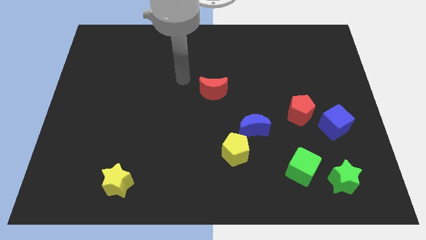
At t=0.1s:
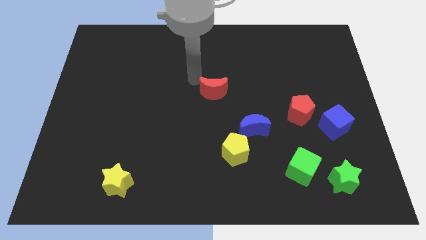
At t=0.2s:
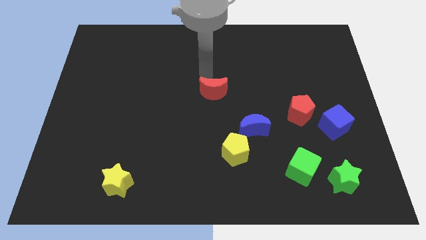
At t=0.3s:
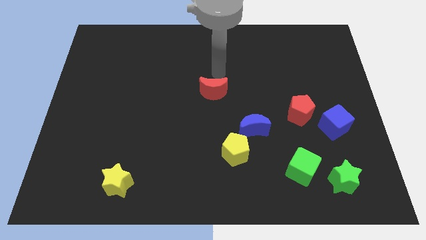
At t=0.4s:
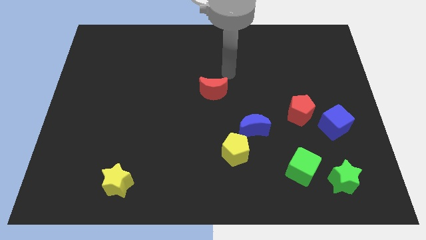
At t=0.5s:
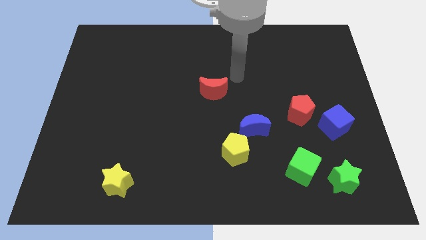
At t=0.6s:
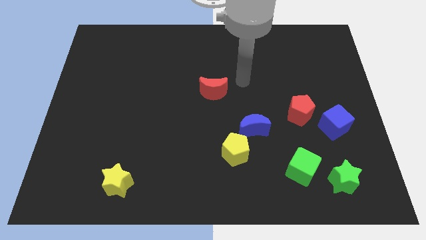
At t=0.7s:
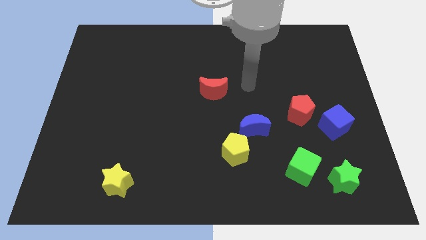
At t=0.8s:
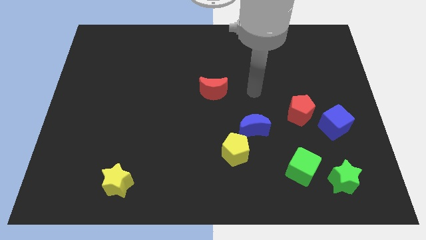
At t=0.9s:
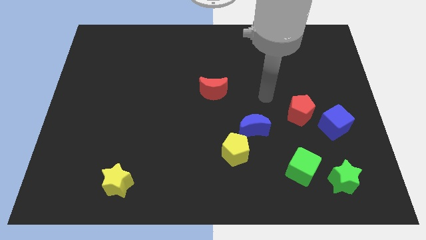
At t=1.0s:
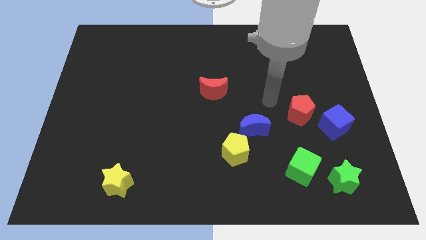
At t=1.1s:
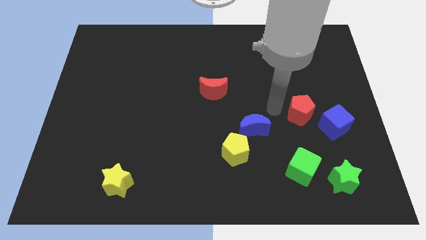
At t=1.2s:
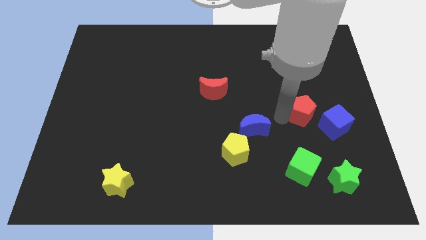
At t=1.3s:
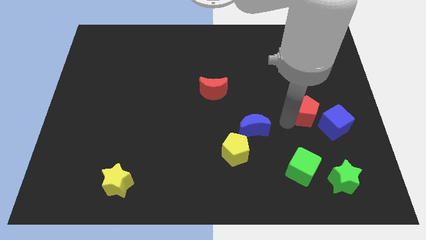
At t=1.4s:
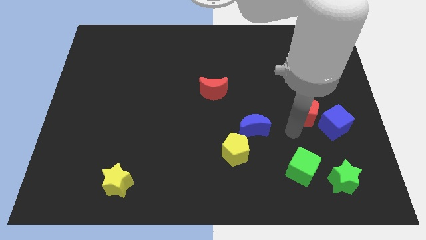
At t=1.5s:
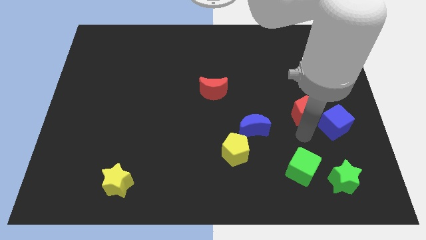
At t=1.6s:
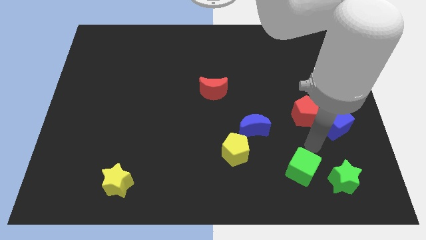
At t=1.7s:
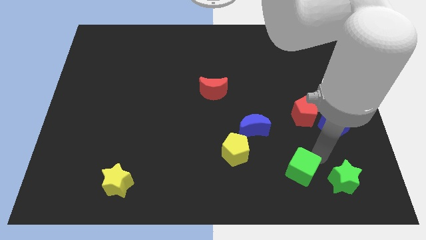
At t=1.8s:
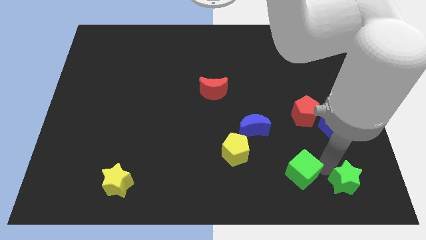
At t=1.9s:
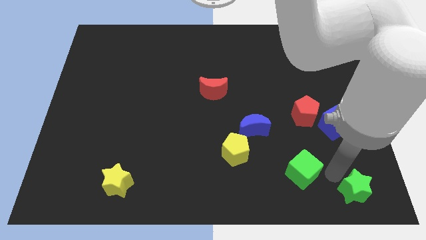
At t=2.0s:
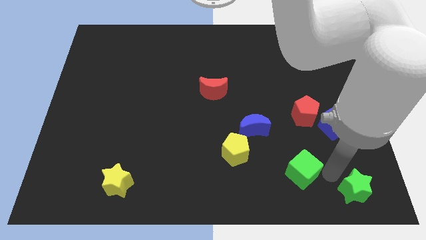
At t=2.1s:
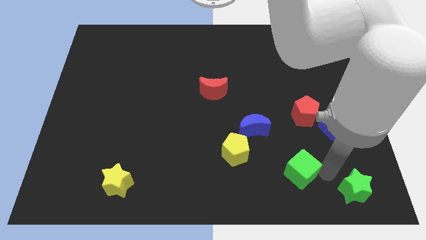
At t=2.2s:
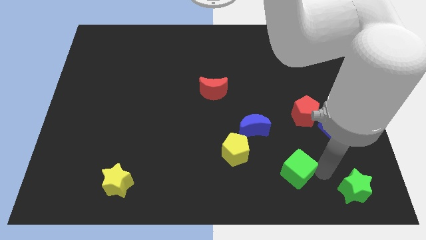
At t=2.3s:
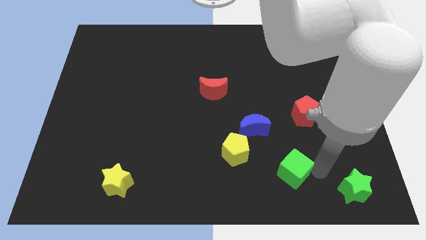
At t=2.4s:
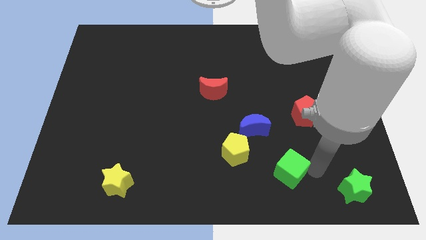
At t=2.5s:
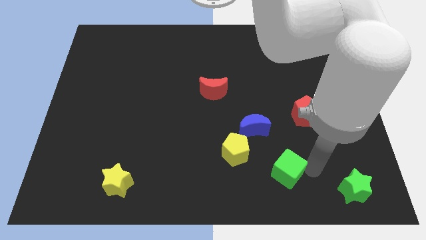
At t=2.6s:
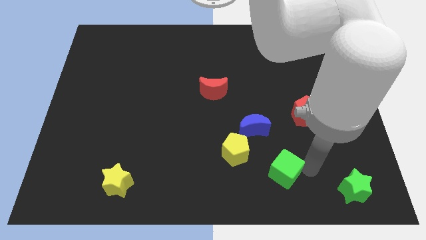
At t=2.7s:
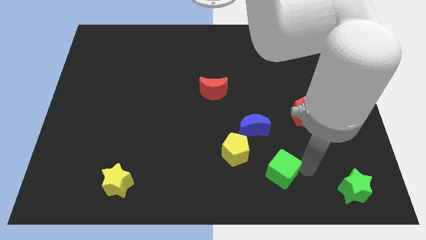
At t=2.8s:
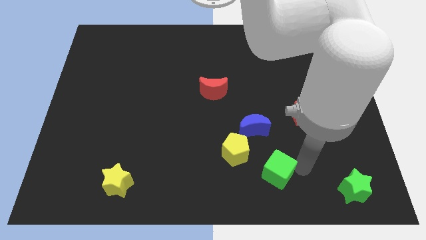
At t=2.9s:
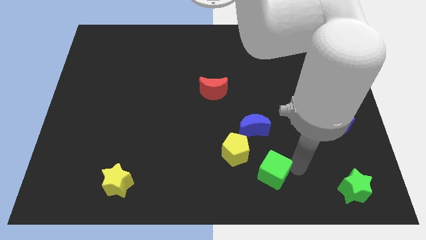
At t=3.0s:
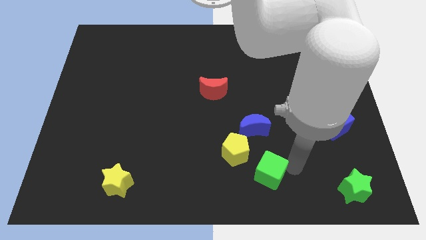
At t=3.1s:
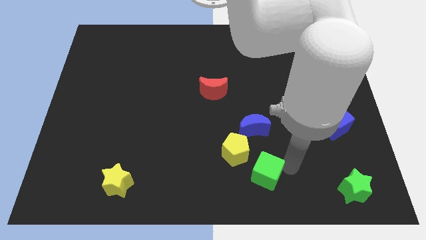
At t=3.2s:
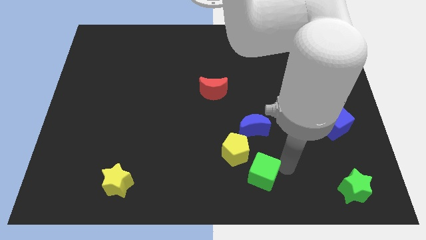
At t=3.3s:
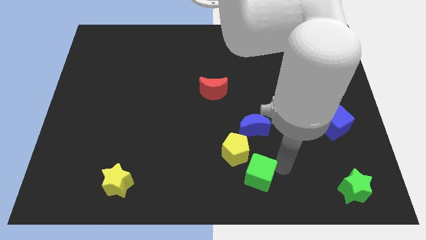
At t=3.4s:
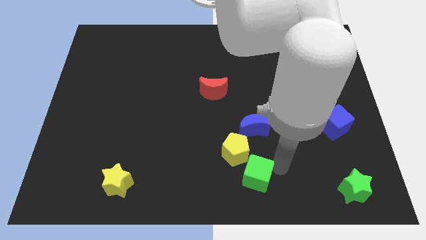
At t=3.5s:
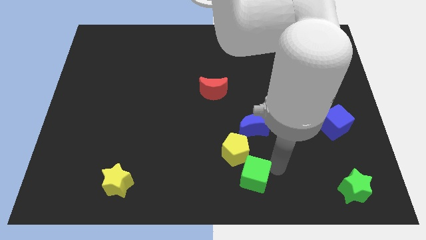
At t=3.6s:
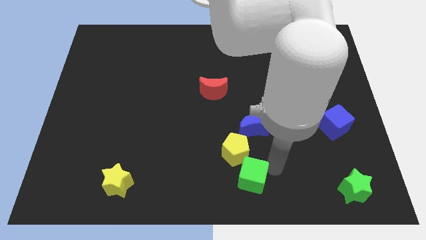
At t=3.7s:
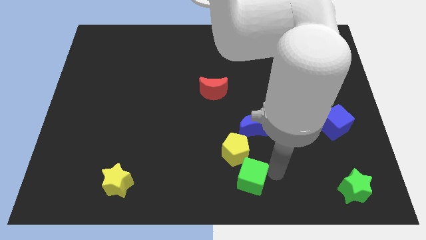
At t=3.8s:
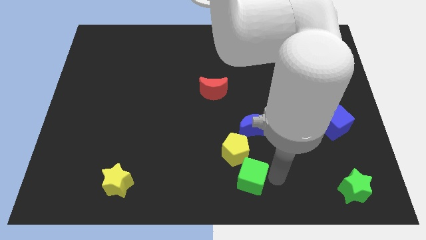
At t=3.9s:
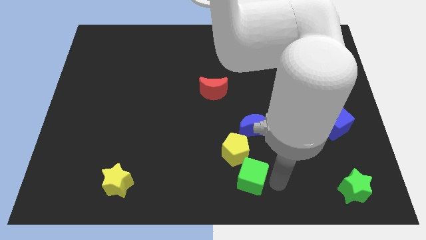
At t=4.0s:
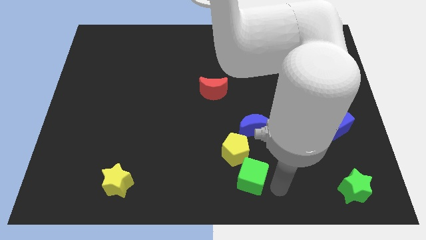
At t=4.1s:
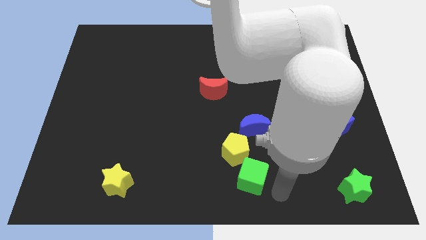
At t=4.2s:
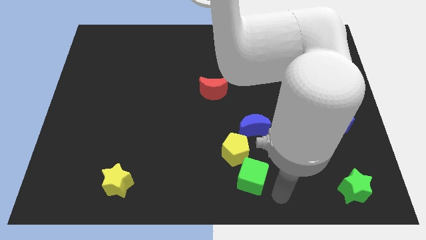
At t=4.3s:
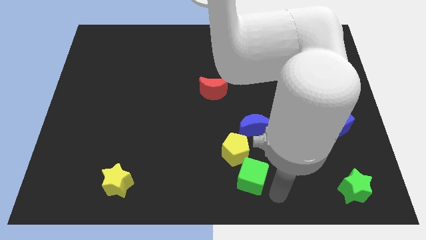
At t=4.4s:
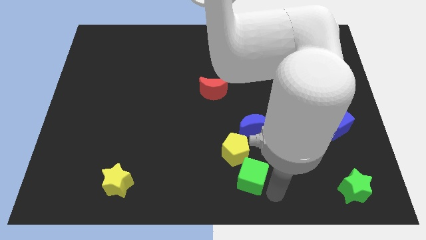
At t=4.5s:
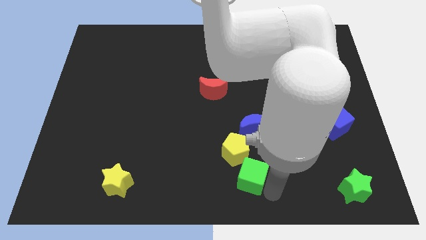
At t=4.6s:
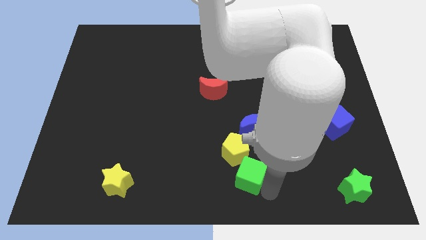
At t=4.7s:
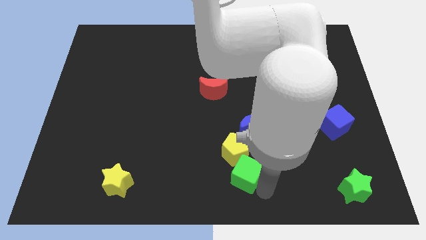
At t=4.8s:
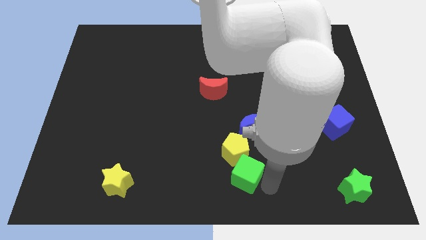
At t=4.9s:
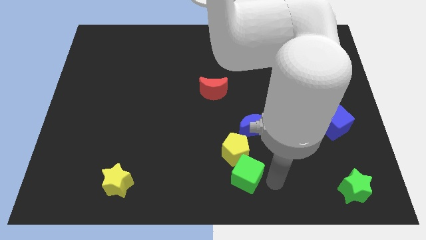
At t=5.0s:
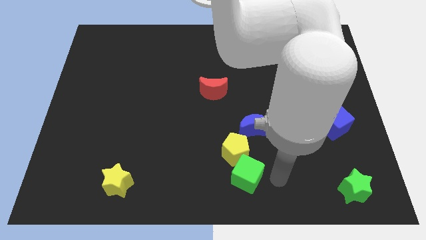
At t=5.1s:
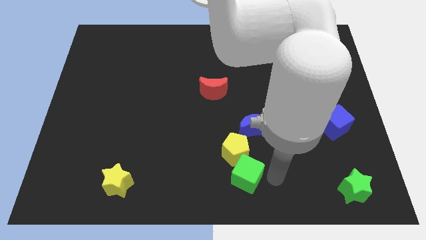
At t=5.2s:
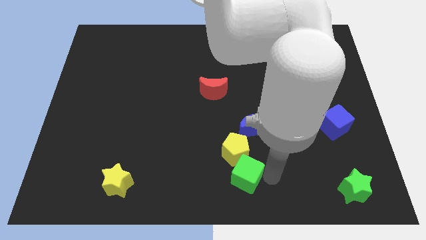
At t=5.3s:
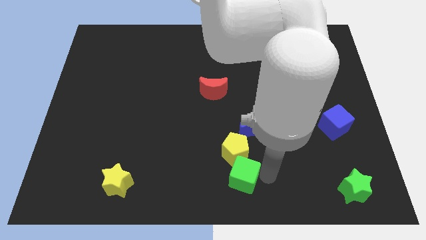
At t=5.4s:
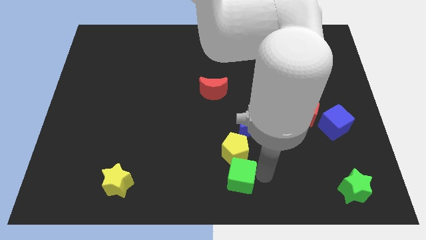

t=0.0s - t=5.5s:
put the green cube to the bottom left of the yellow pentagon

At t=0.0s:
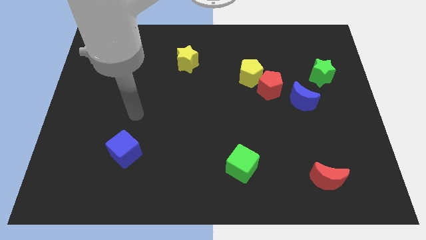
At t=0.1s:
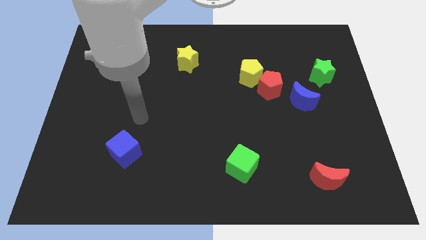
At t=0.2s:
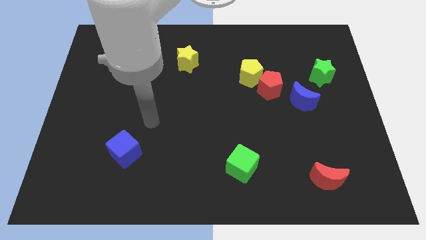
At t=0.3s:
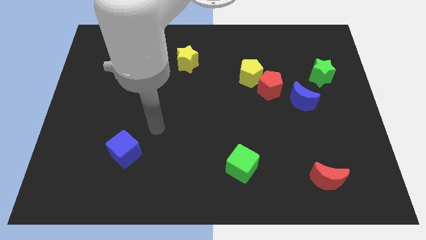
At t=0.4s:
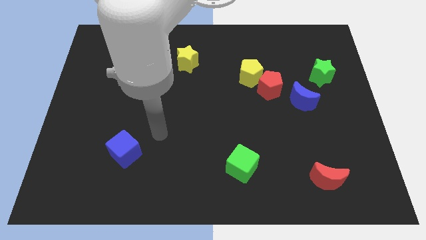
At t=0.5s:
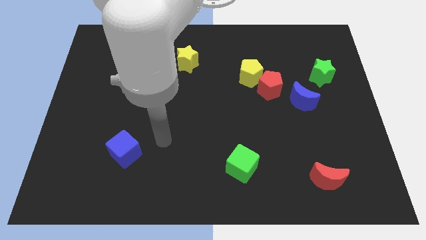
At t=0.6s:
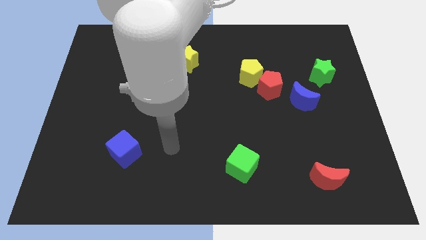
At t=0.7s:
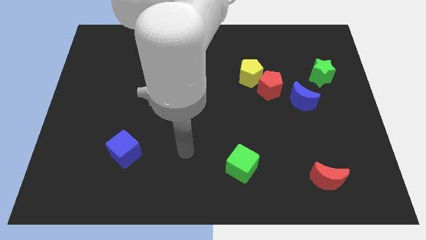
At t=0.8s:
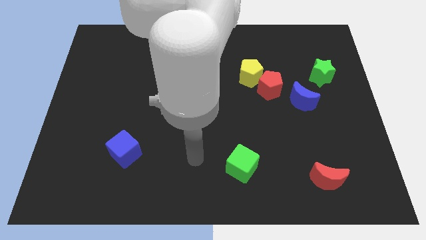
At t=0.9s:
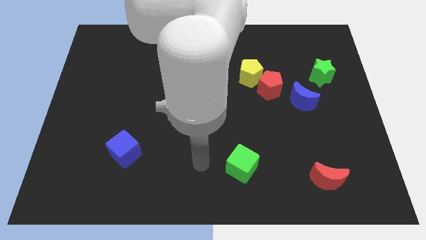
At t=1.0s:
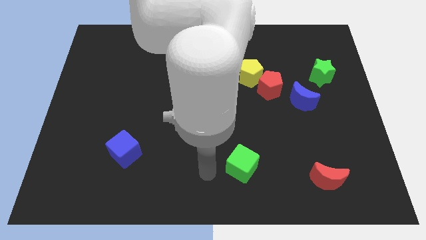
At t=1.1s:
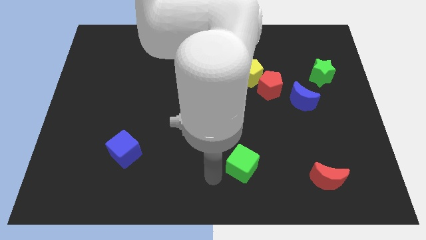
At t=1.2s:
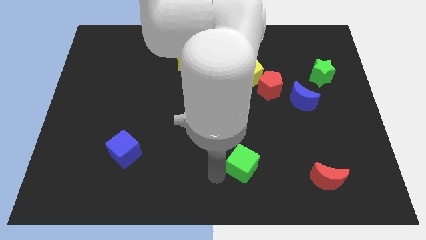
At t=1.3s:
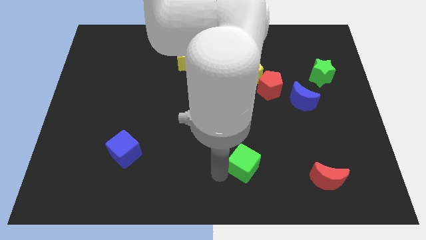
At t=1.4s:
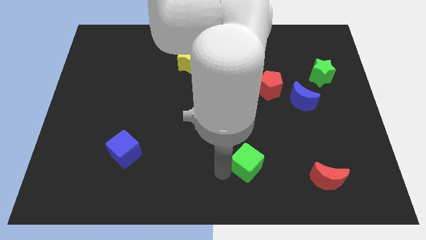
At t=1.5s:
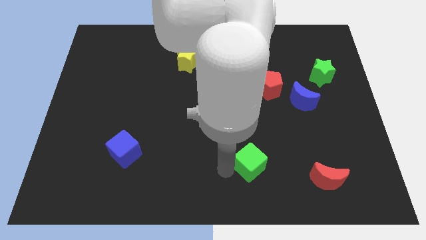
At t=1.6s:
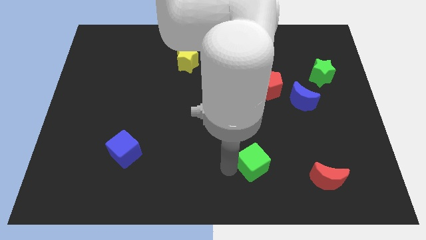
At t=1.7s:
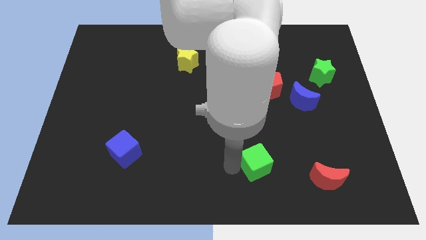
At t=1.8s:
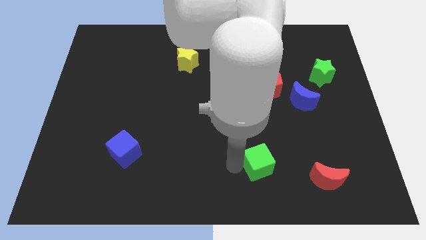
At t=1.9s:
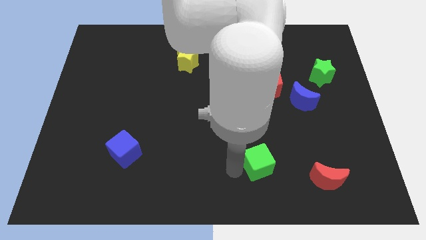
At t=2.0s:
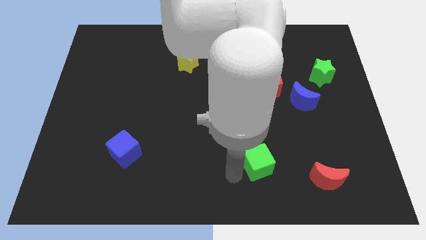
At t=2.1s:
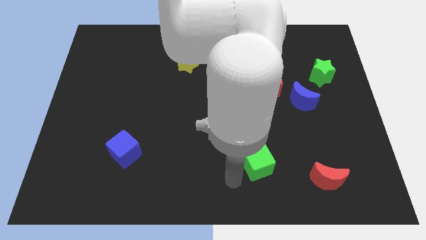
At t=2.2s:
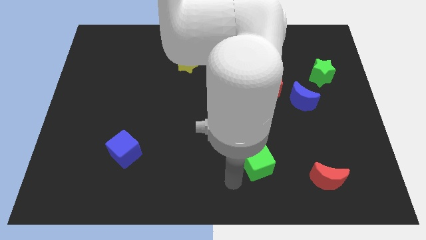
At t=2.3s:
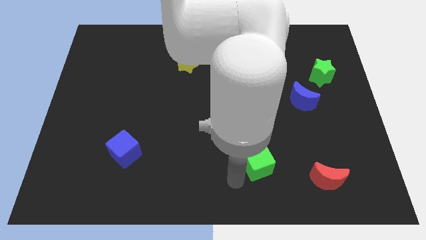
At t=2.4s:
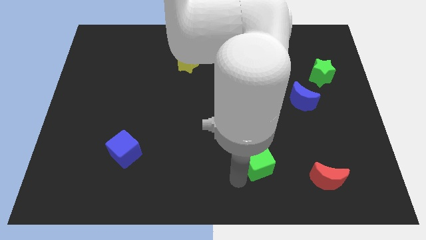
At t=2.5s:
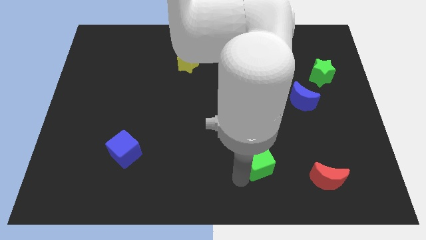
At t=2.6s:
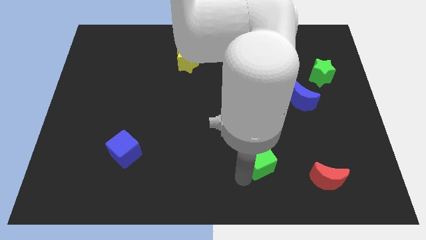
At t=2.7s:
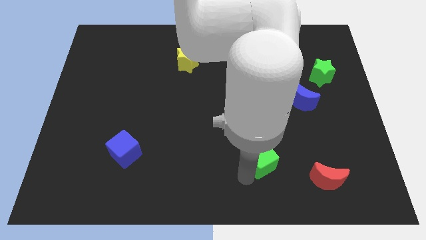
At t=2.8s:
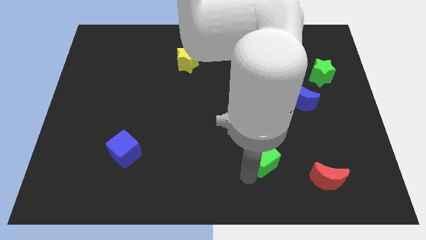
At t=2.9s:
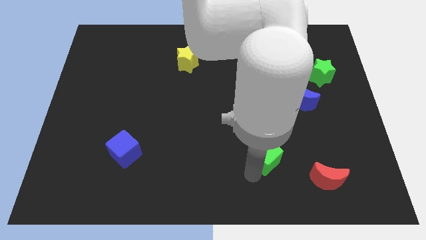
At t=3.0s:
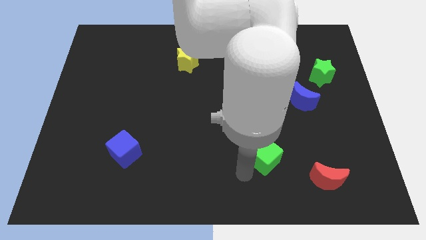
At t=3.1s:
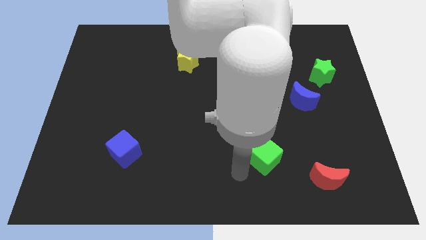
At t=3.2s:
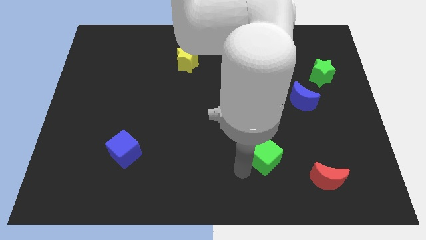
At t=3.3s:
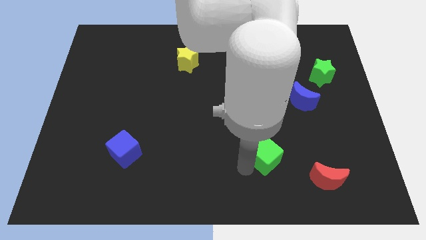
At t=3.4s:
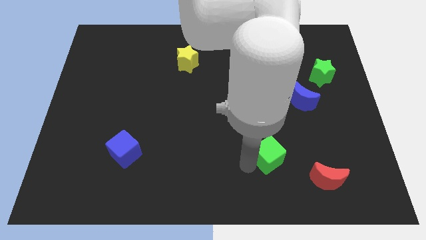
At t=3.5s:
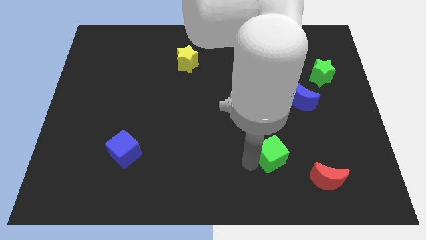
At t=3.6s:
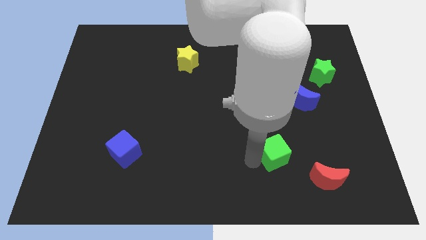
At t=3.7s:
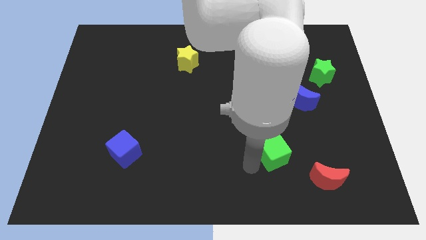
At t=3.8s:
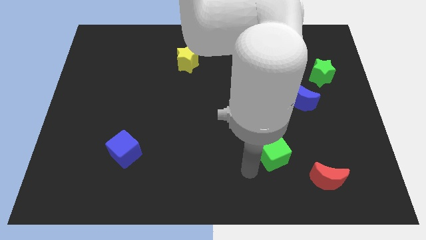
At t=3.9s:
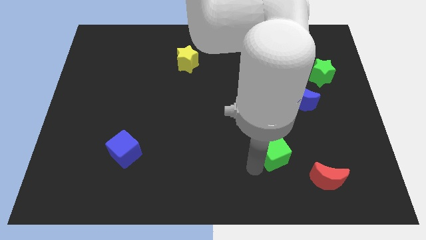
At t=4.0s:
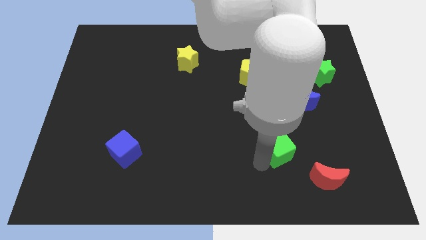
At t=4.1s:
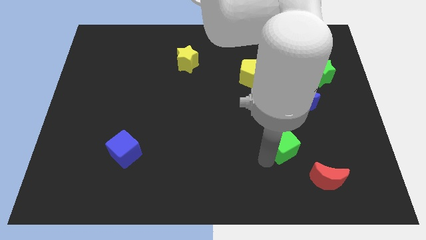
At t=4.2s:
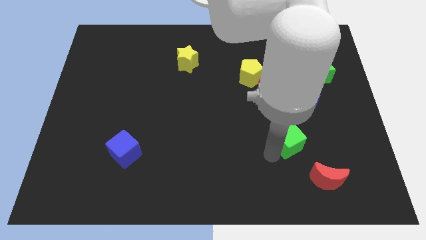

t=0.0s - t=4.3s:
put the green cube to the bottom of the blue moon
